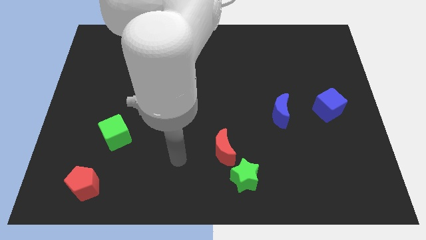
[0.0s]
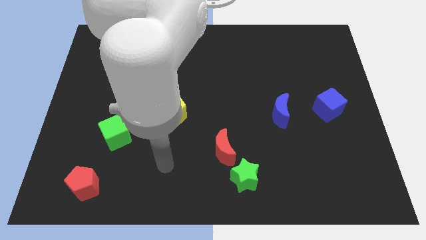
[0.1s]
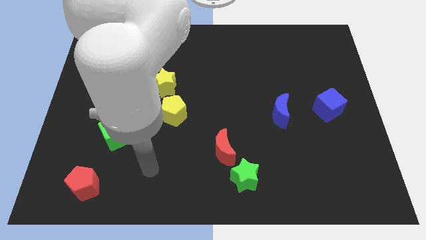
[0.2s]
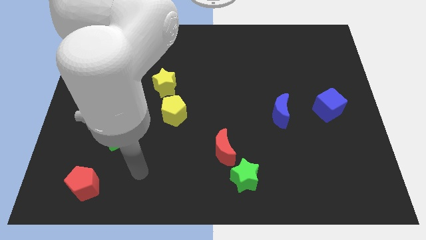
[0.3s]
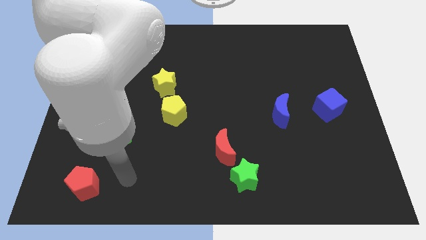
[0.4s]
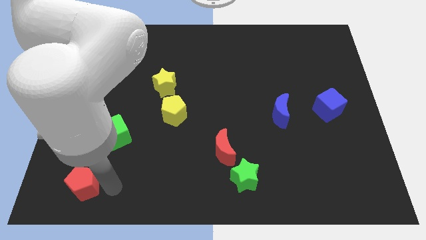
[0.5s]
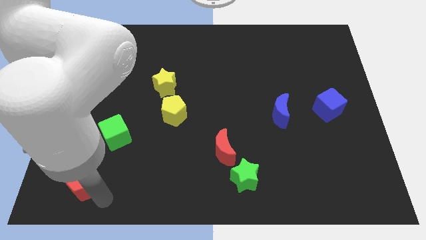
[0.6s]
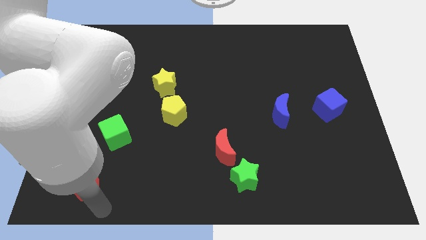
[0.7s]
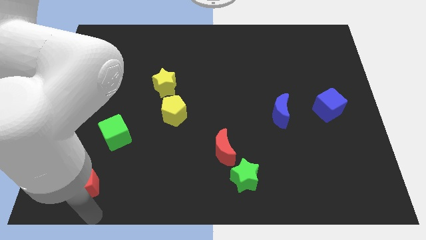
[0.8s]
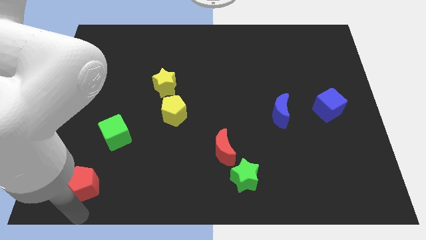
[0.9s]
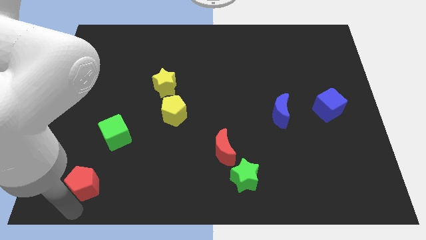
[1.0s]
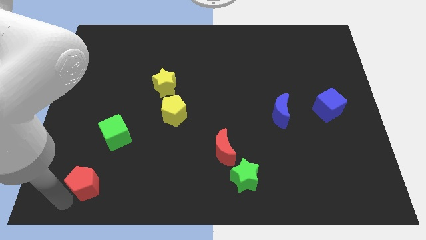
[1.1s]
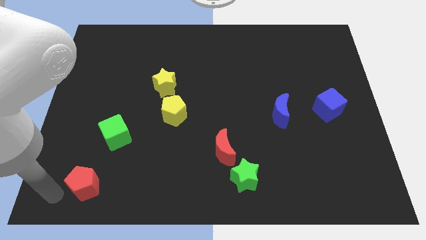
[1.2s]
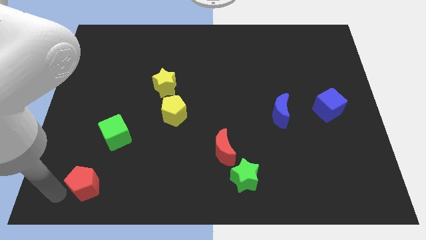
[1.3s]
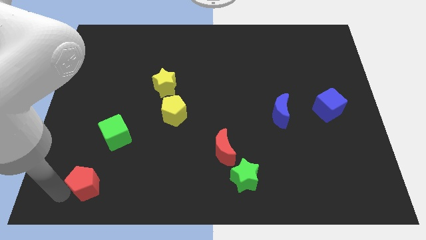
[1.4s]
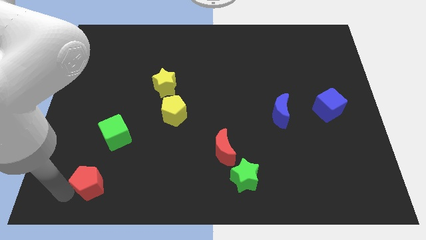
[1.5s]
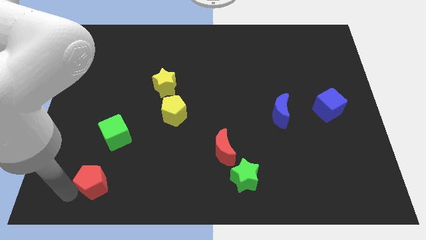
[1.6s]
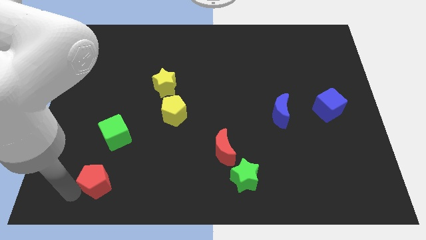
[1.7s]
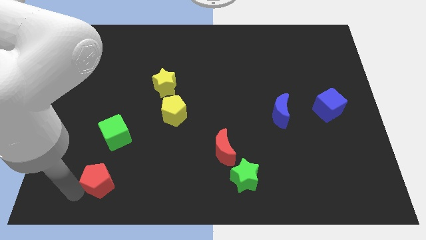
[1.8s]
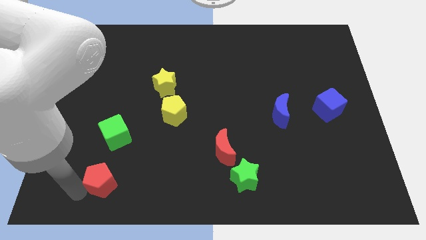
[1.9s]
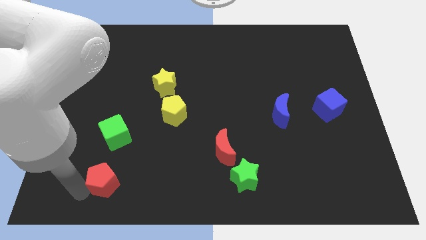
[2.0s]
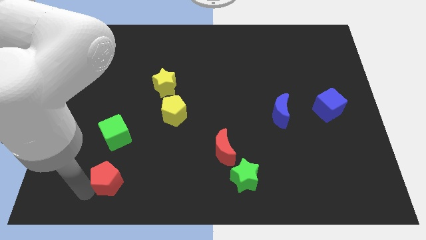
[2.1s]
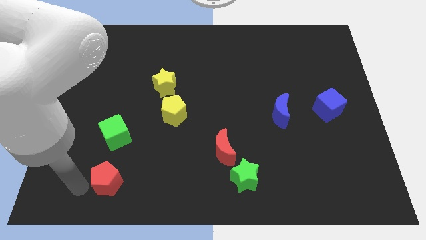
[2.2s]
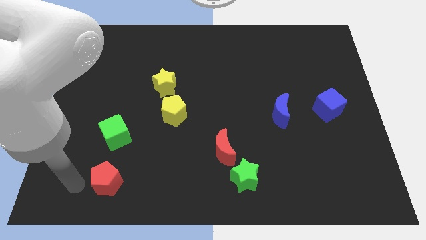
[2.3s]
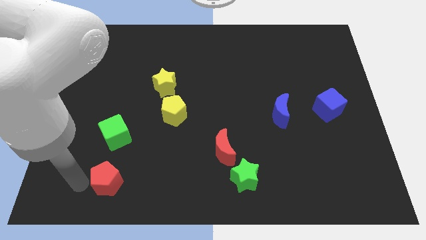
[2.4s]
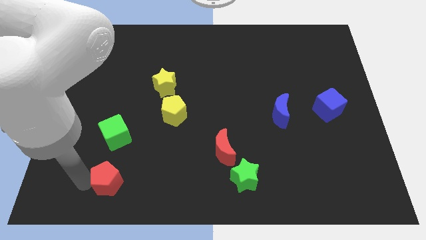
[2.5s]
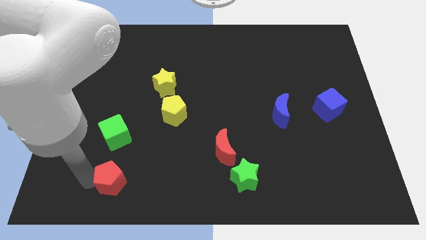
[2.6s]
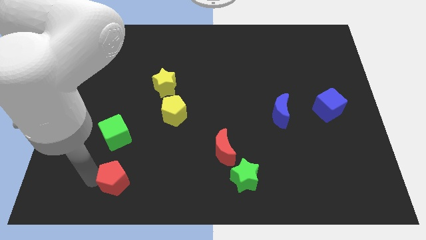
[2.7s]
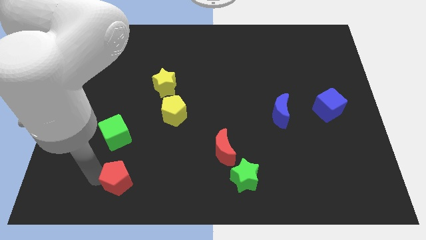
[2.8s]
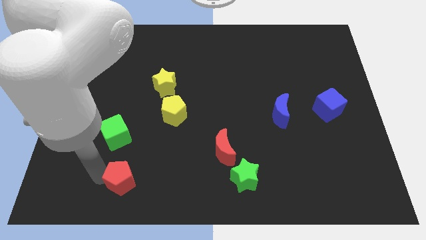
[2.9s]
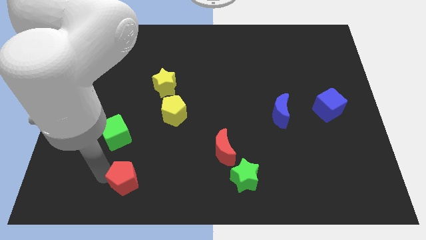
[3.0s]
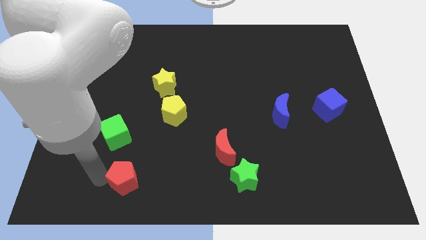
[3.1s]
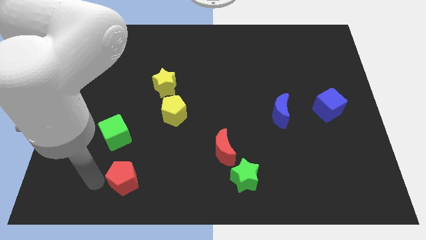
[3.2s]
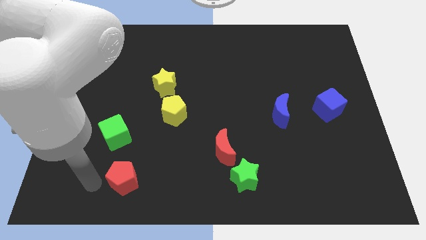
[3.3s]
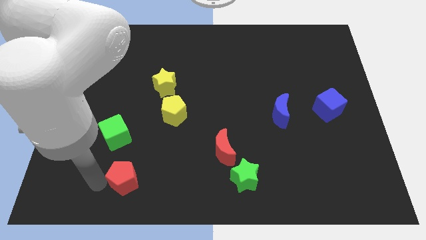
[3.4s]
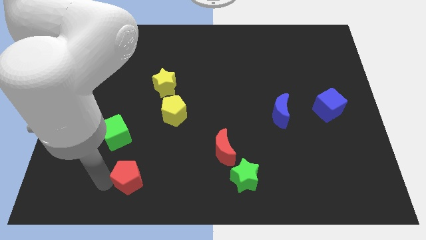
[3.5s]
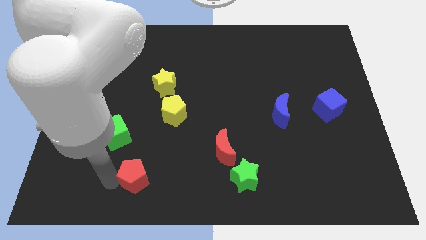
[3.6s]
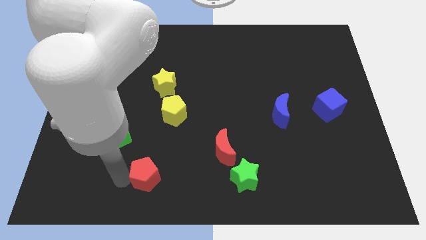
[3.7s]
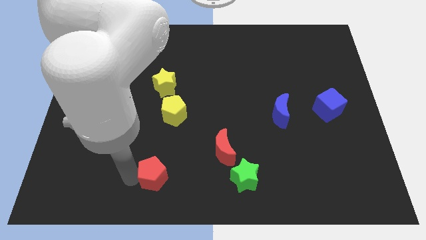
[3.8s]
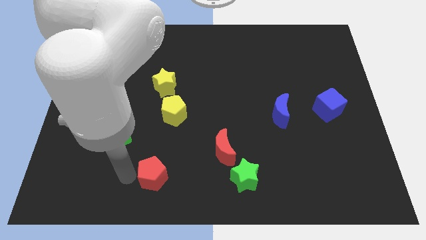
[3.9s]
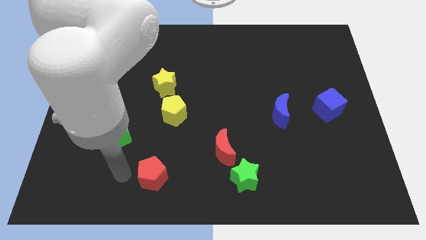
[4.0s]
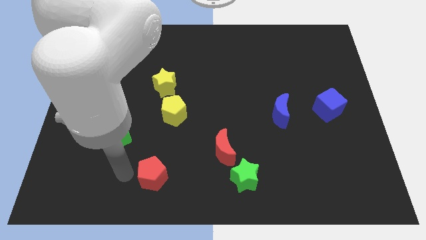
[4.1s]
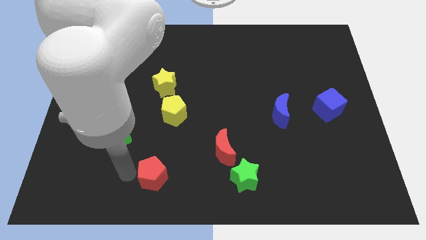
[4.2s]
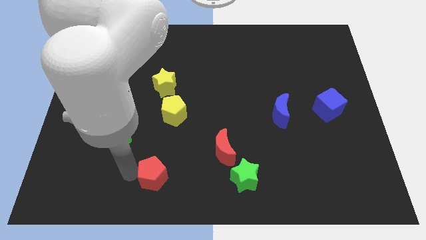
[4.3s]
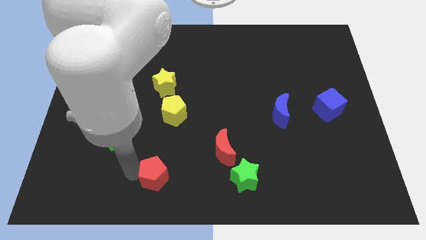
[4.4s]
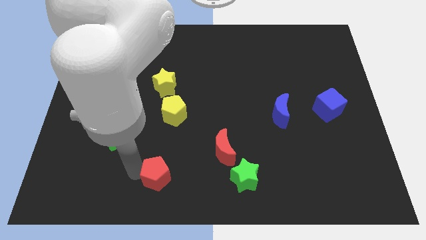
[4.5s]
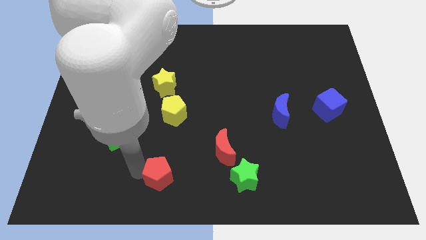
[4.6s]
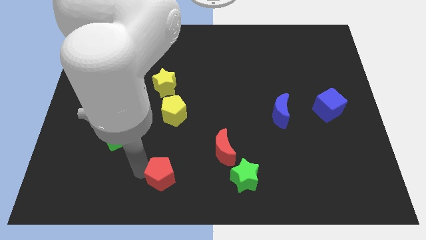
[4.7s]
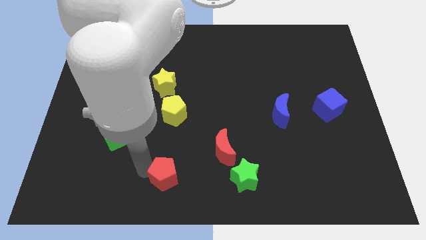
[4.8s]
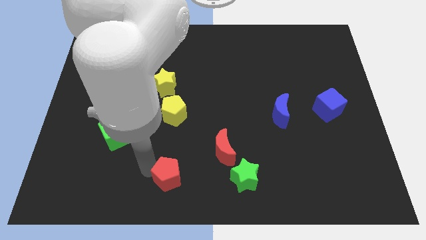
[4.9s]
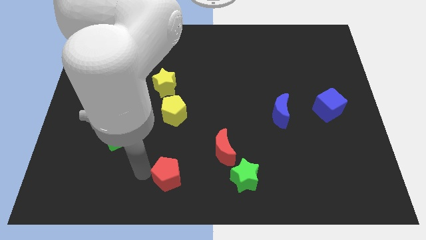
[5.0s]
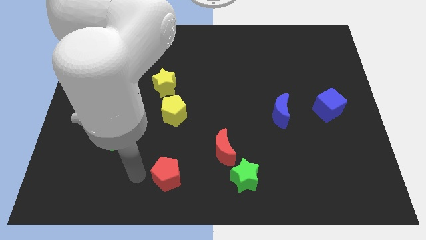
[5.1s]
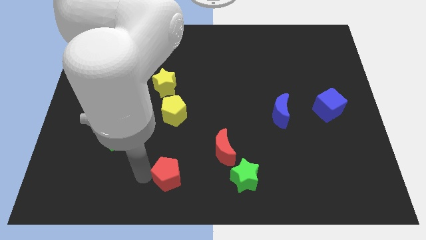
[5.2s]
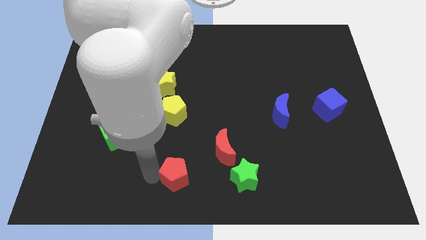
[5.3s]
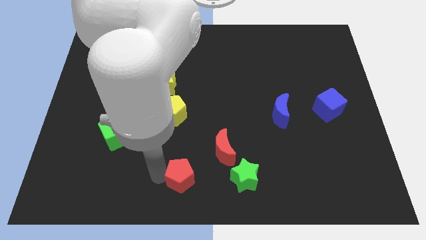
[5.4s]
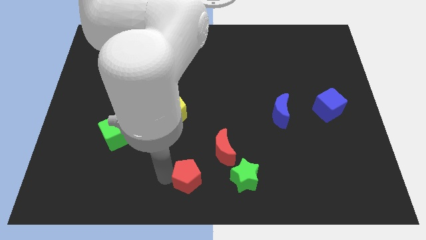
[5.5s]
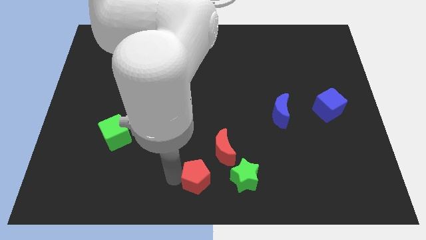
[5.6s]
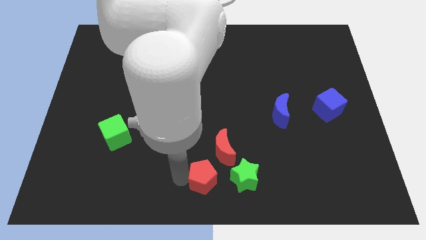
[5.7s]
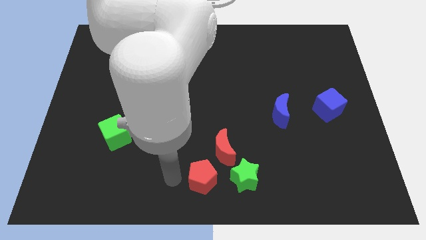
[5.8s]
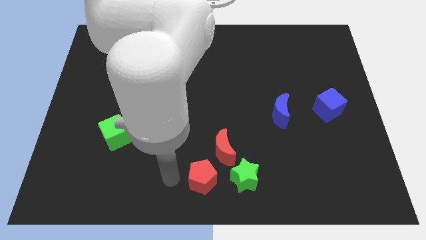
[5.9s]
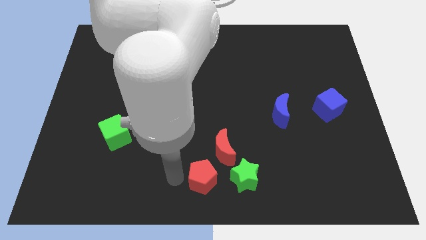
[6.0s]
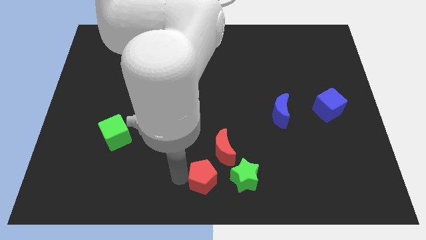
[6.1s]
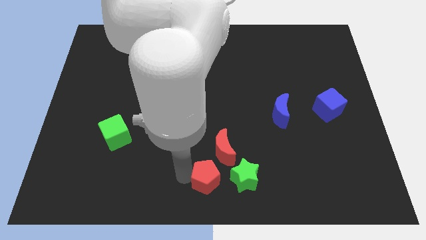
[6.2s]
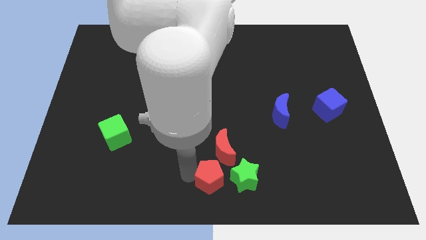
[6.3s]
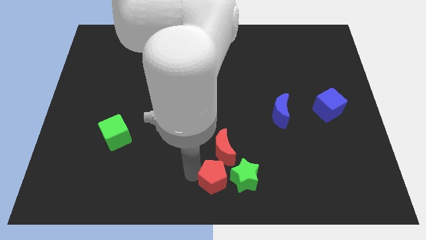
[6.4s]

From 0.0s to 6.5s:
move the red pentagon to the green star

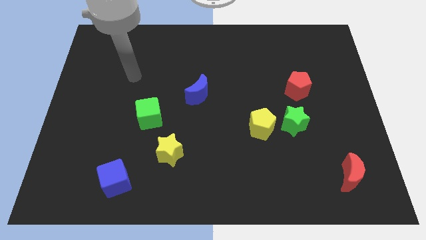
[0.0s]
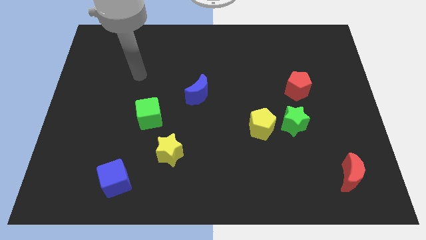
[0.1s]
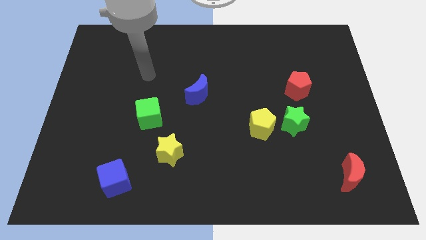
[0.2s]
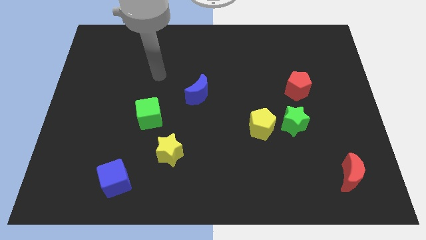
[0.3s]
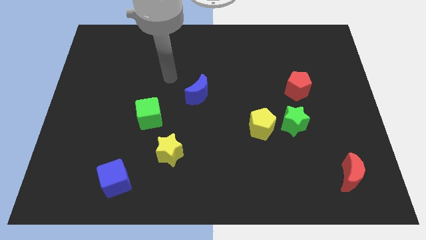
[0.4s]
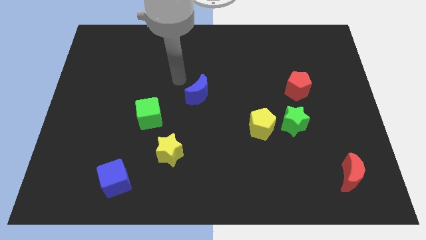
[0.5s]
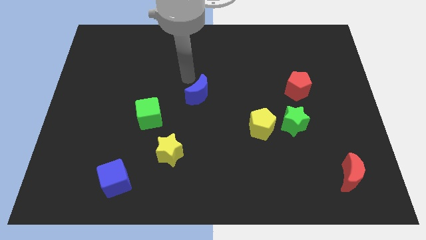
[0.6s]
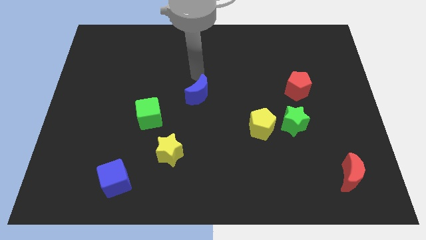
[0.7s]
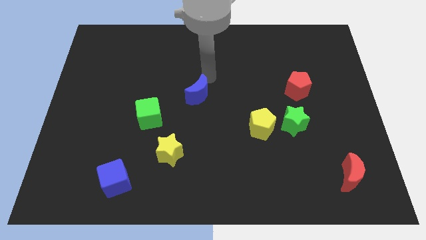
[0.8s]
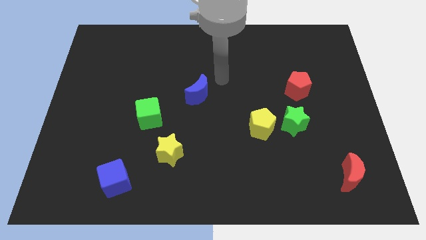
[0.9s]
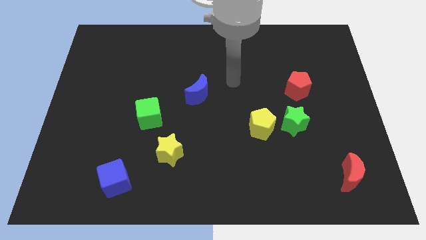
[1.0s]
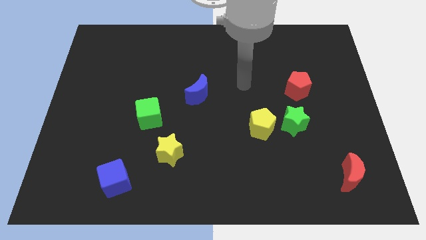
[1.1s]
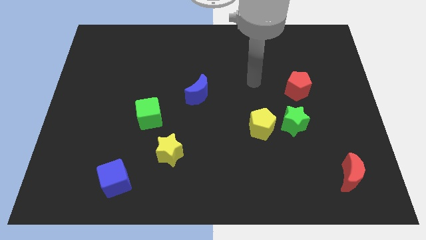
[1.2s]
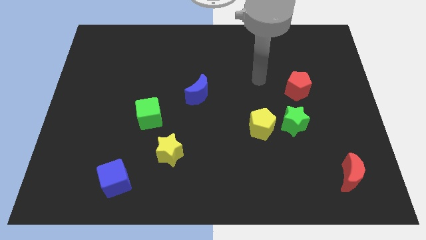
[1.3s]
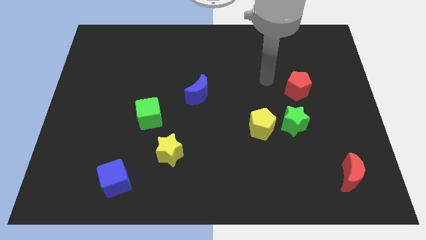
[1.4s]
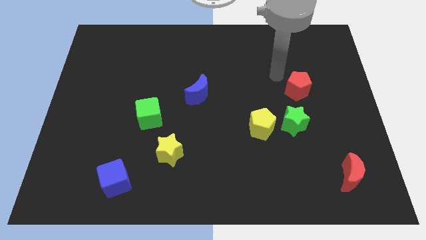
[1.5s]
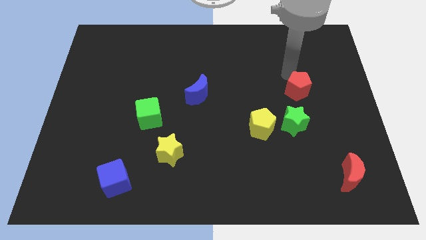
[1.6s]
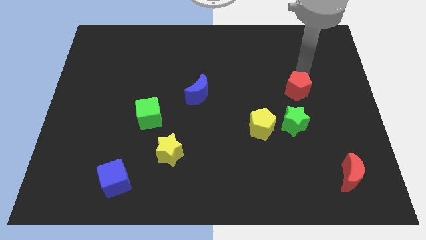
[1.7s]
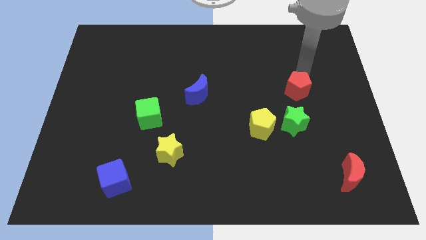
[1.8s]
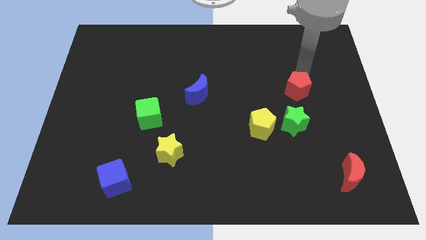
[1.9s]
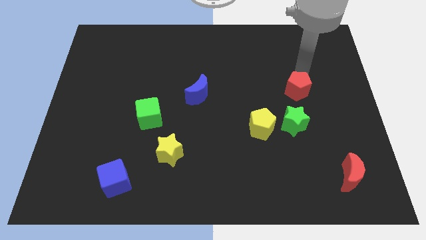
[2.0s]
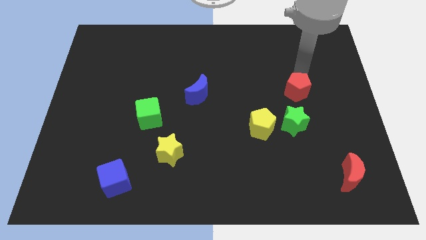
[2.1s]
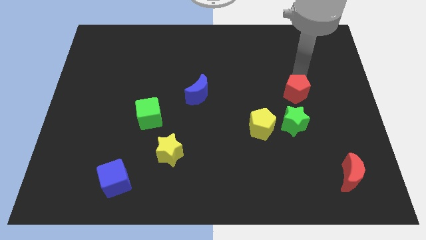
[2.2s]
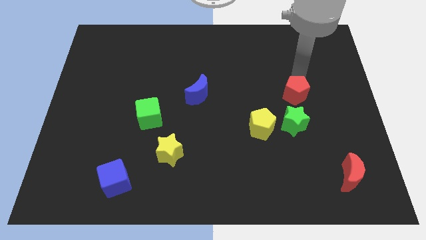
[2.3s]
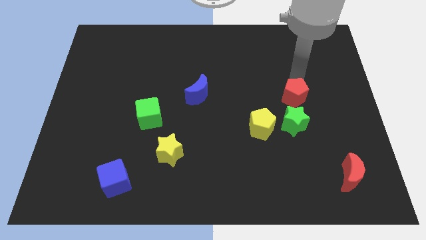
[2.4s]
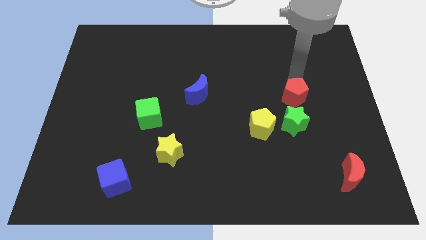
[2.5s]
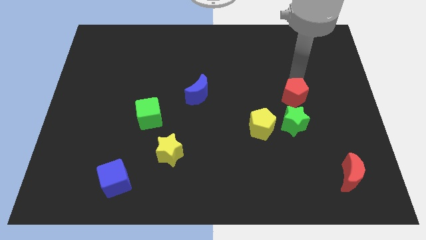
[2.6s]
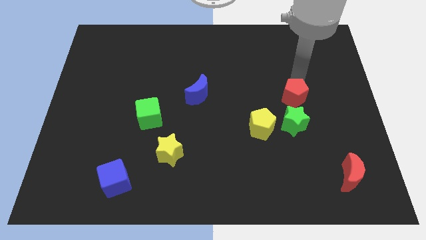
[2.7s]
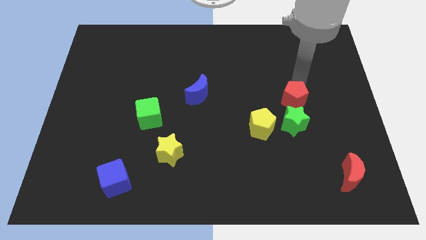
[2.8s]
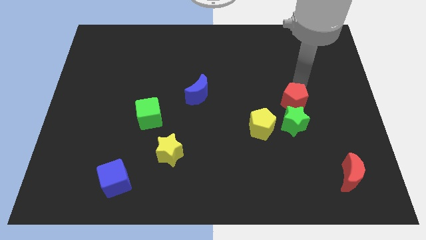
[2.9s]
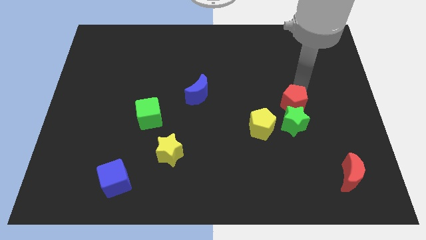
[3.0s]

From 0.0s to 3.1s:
slide the red pentagon next to the green star
